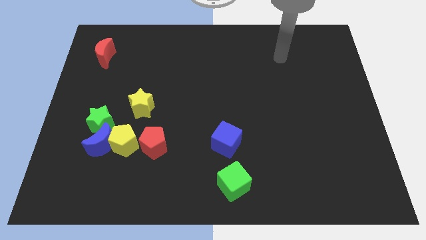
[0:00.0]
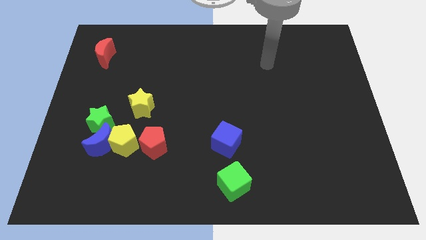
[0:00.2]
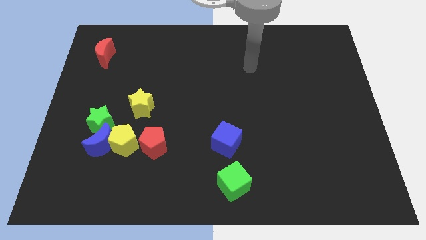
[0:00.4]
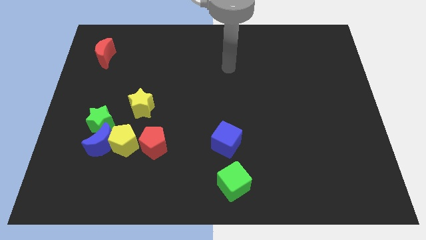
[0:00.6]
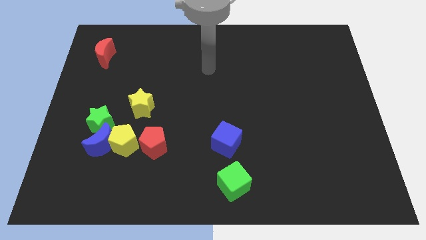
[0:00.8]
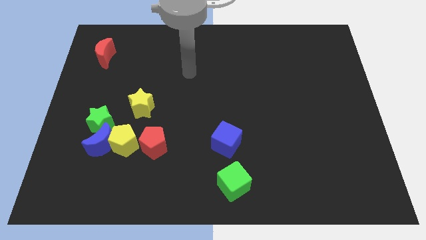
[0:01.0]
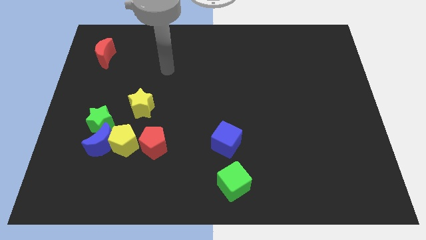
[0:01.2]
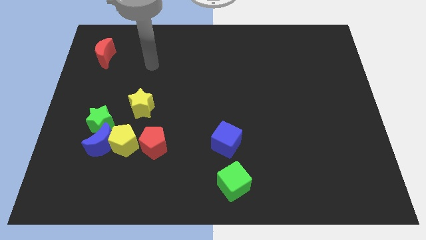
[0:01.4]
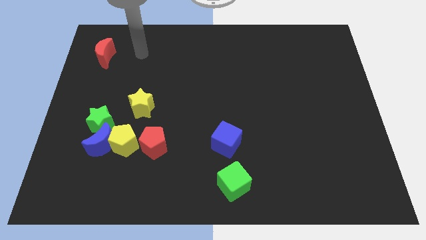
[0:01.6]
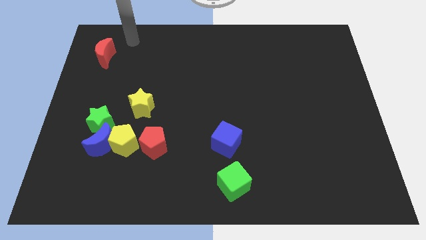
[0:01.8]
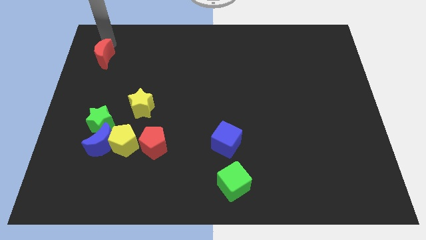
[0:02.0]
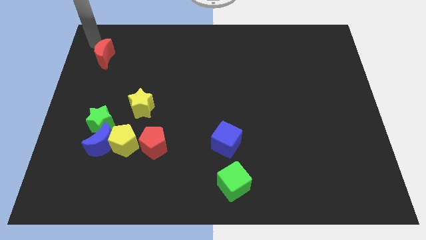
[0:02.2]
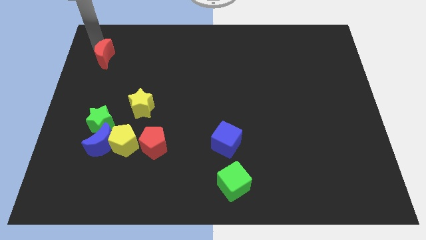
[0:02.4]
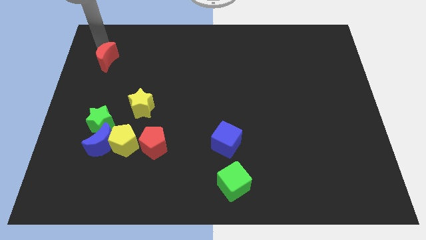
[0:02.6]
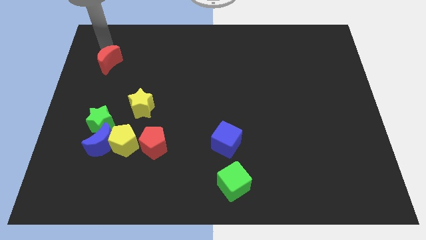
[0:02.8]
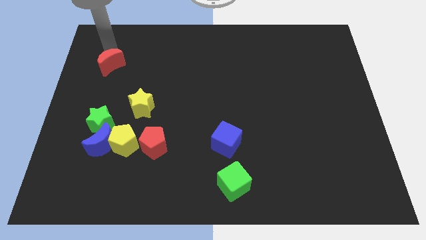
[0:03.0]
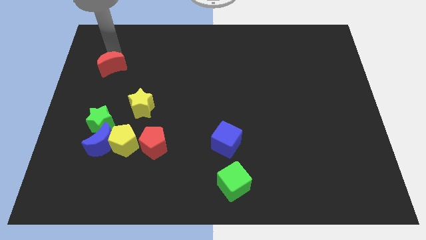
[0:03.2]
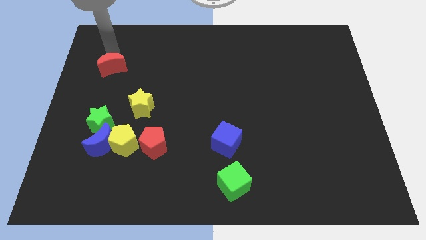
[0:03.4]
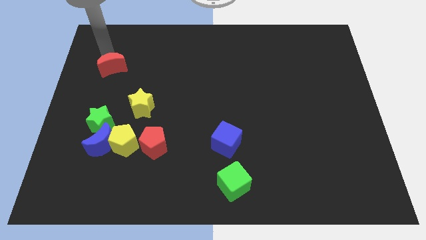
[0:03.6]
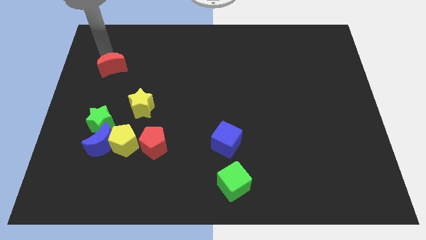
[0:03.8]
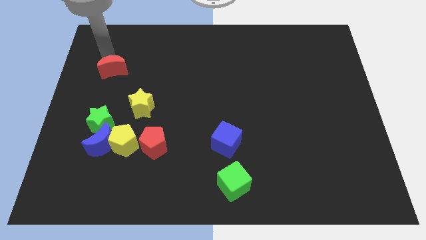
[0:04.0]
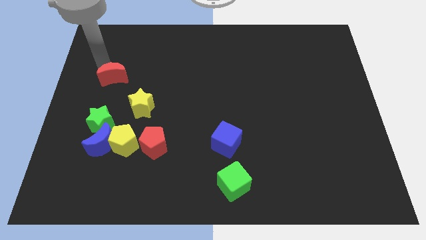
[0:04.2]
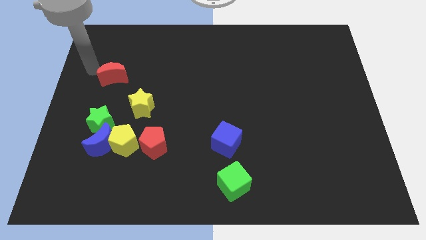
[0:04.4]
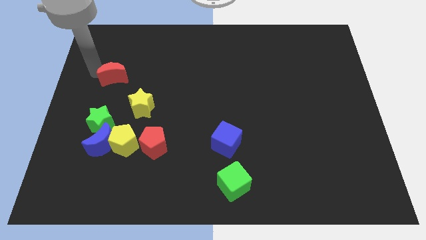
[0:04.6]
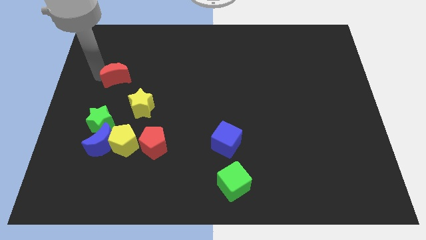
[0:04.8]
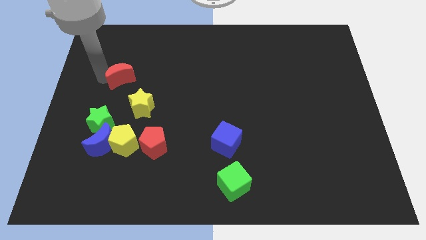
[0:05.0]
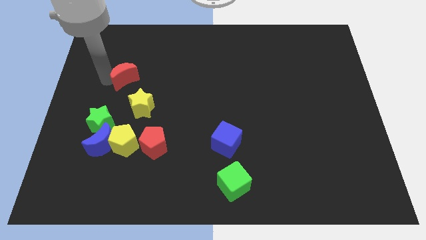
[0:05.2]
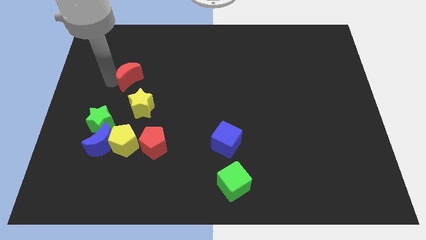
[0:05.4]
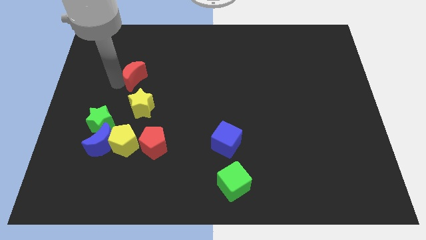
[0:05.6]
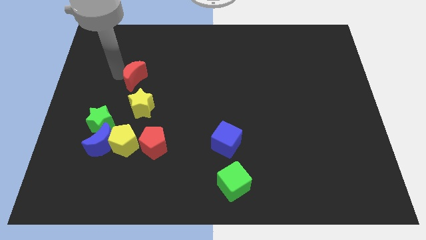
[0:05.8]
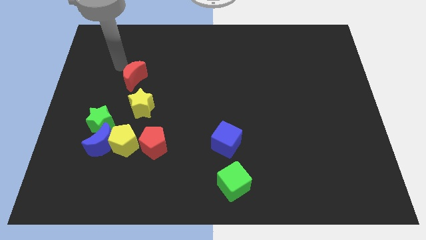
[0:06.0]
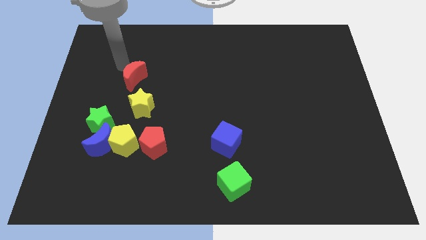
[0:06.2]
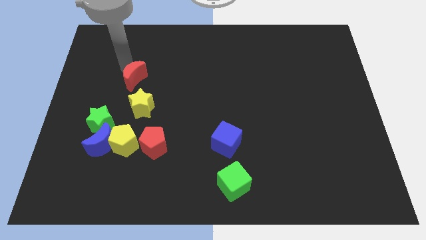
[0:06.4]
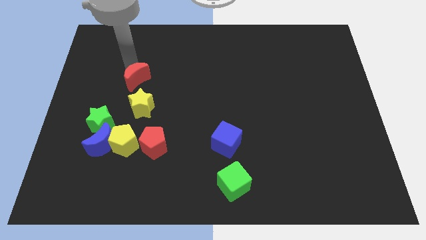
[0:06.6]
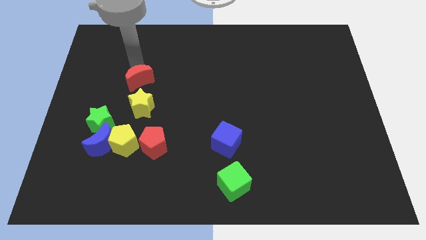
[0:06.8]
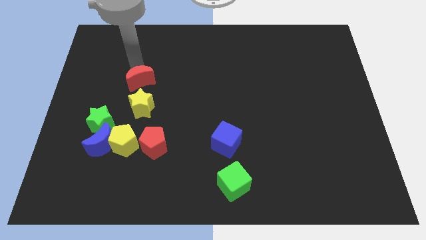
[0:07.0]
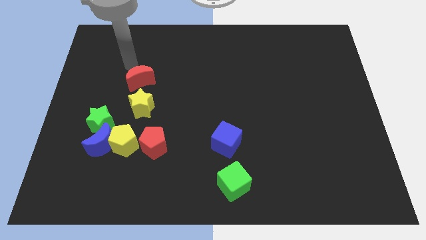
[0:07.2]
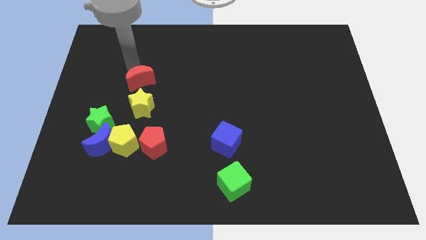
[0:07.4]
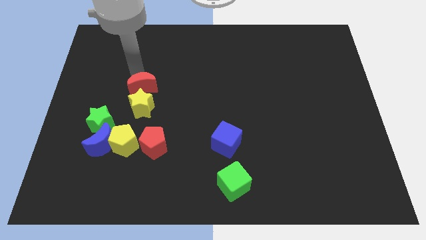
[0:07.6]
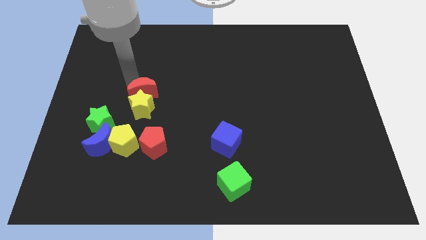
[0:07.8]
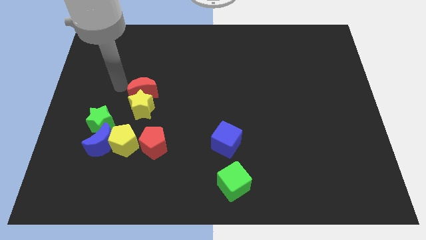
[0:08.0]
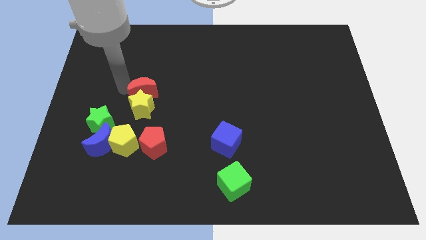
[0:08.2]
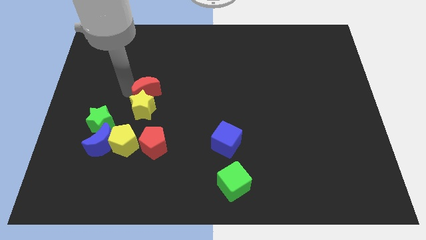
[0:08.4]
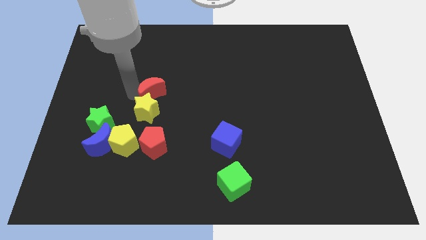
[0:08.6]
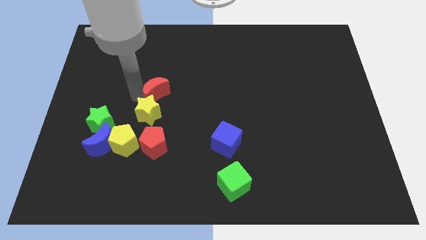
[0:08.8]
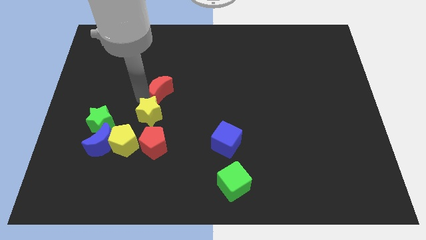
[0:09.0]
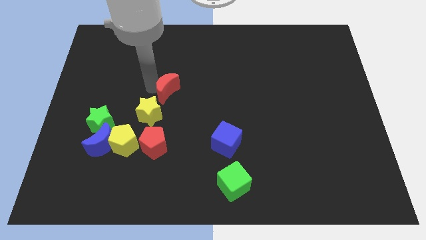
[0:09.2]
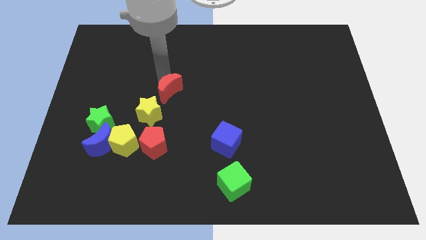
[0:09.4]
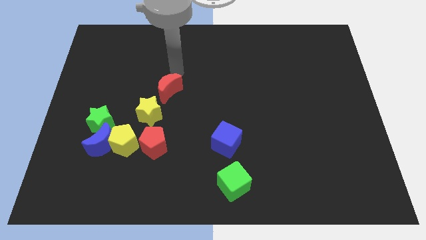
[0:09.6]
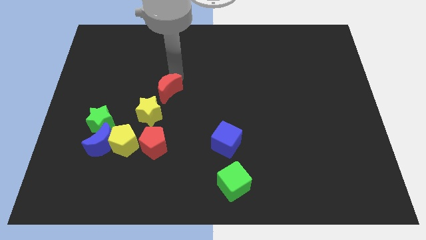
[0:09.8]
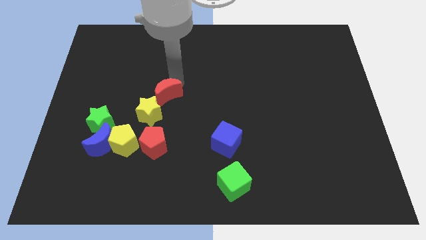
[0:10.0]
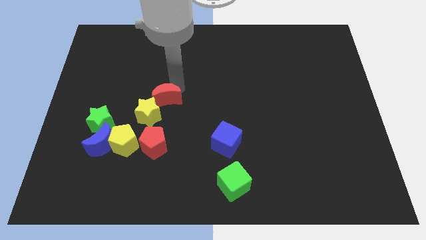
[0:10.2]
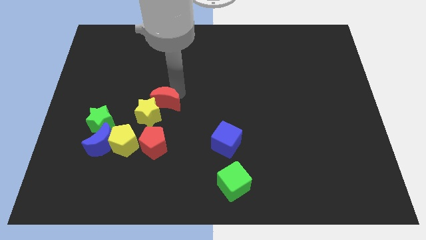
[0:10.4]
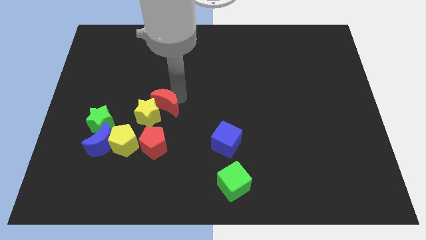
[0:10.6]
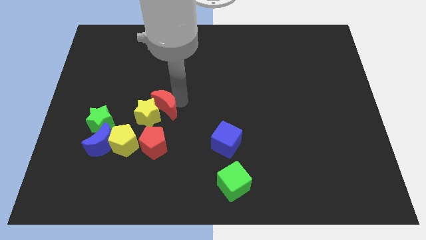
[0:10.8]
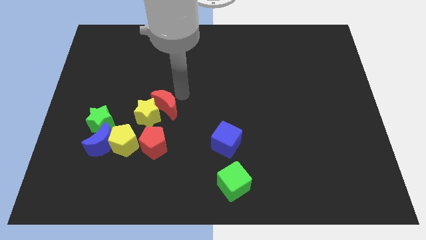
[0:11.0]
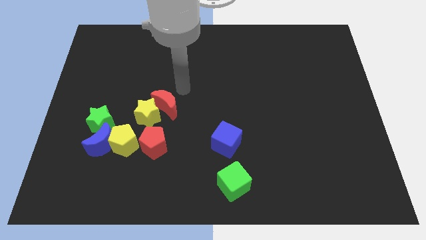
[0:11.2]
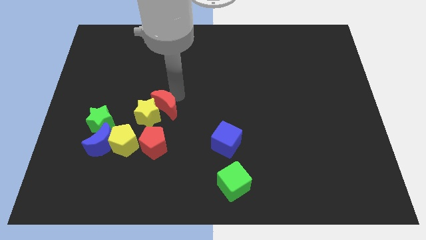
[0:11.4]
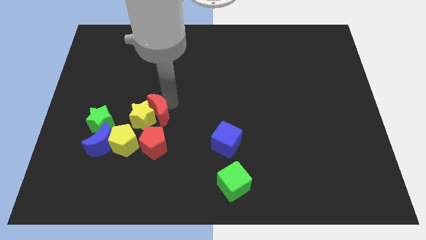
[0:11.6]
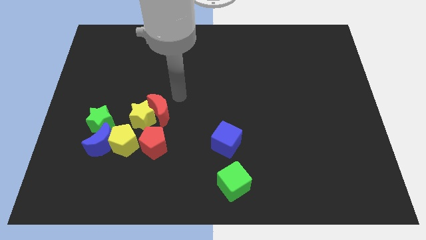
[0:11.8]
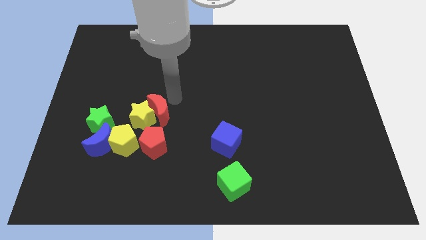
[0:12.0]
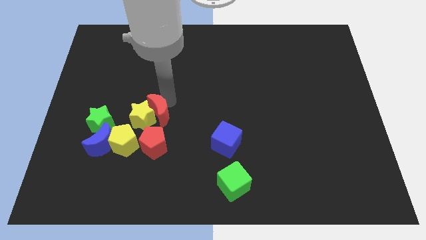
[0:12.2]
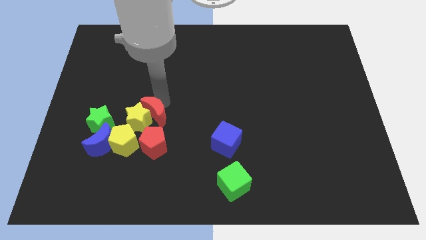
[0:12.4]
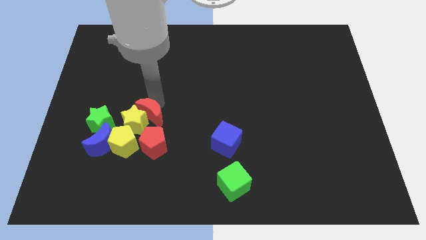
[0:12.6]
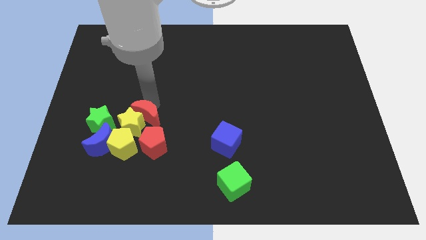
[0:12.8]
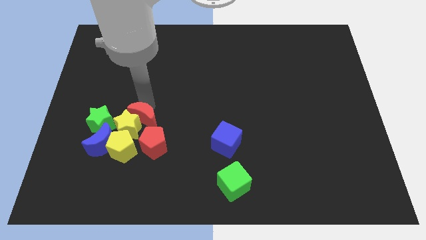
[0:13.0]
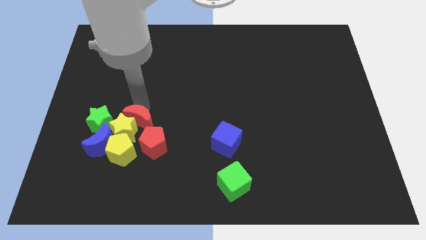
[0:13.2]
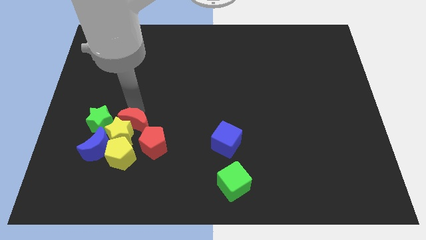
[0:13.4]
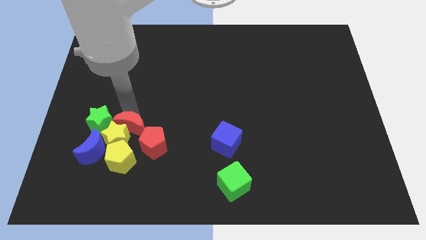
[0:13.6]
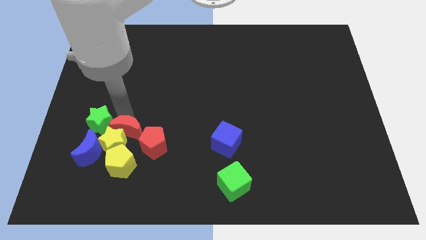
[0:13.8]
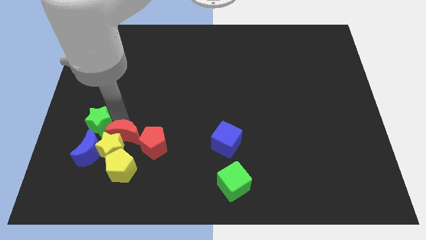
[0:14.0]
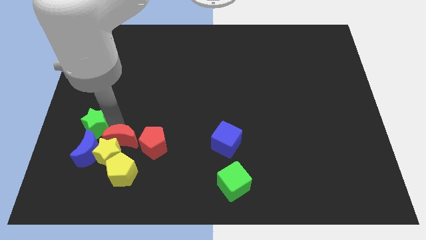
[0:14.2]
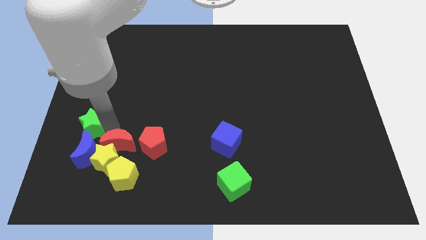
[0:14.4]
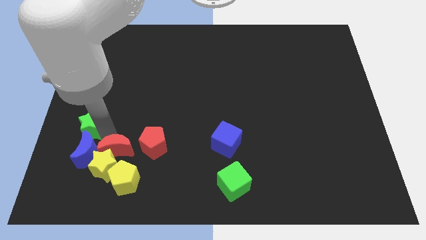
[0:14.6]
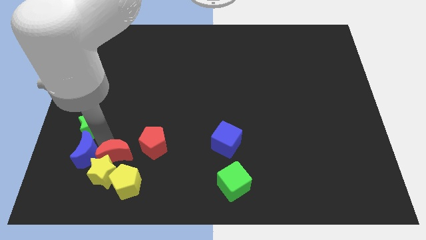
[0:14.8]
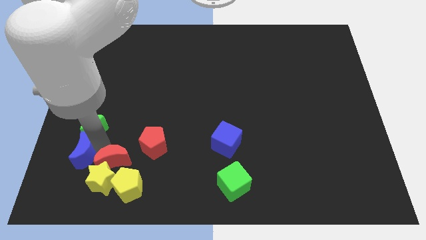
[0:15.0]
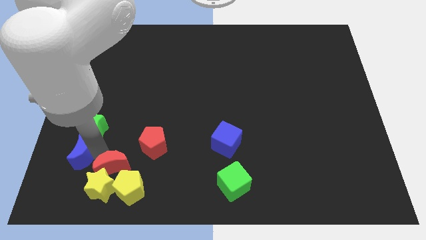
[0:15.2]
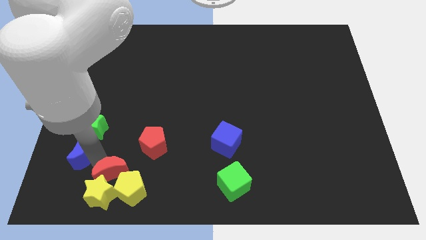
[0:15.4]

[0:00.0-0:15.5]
slide the red moon to the yellow pentagon
